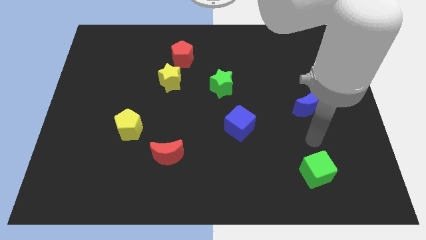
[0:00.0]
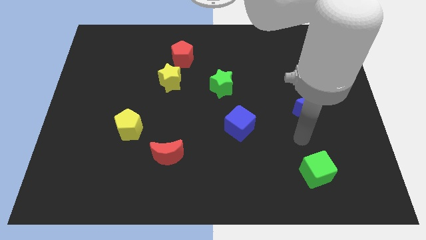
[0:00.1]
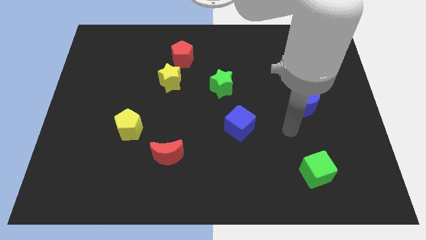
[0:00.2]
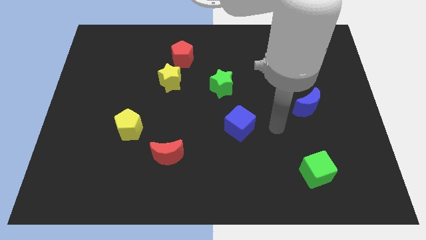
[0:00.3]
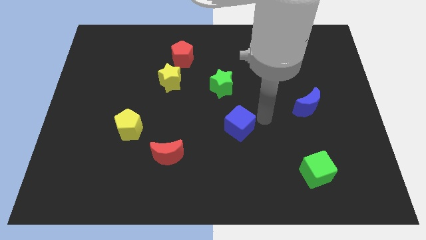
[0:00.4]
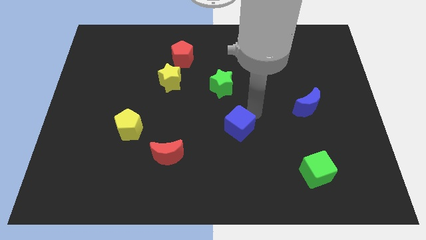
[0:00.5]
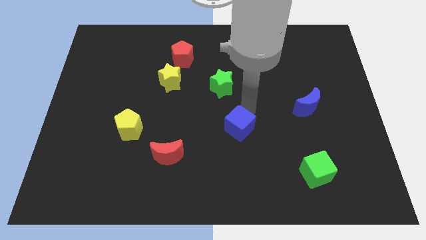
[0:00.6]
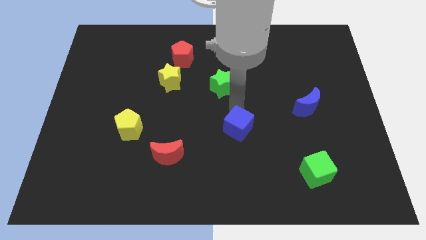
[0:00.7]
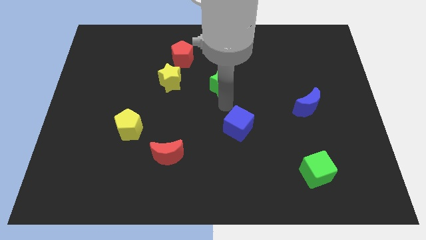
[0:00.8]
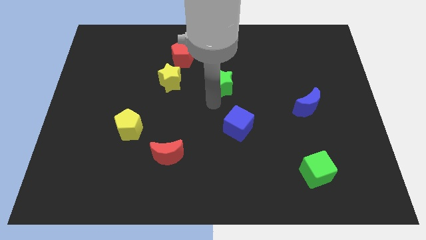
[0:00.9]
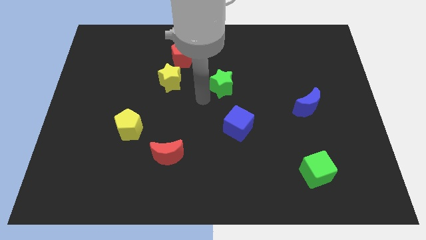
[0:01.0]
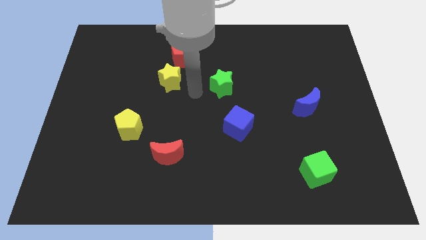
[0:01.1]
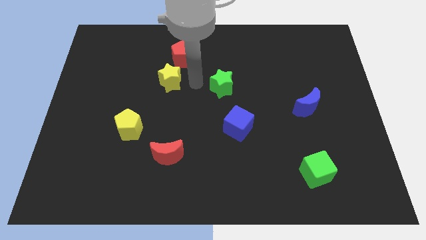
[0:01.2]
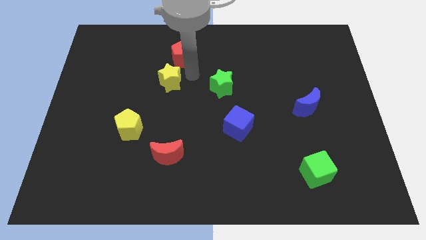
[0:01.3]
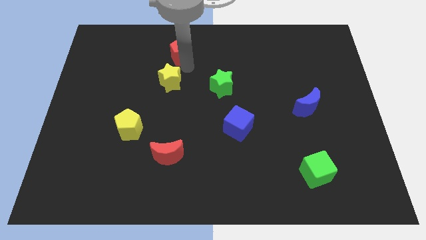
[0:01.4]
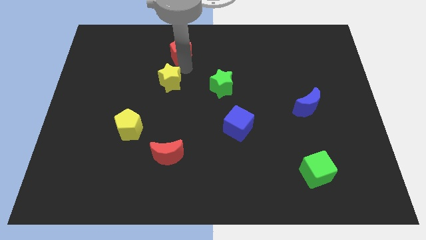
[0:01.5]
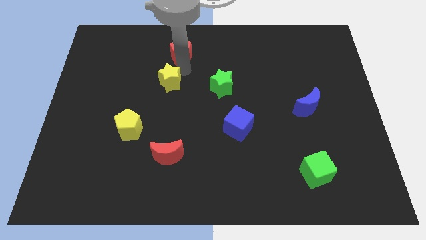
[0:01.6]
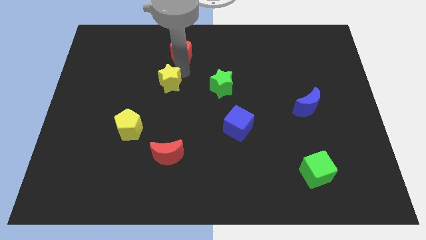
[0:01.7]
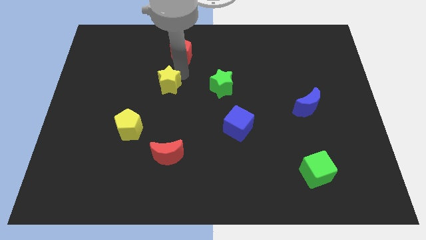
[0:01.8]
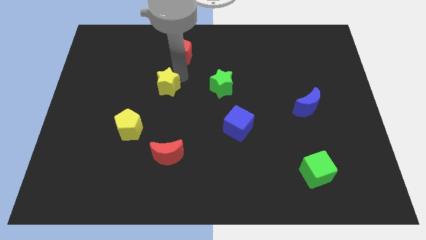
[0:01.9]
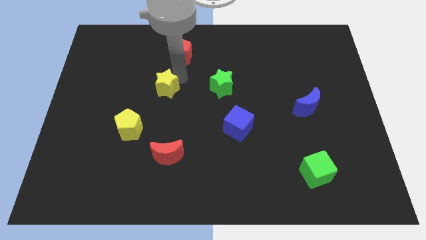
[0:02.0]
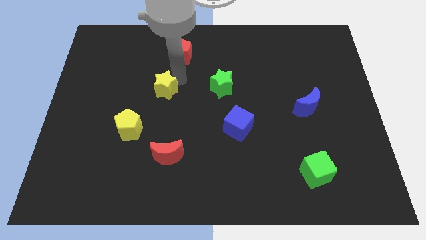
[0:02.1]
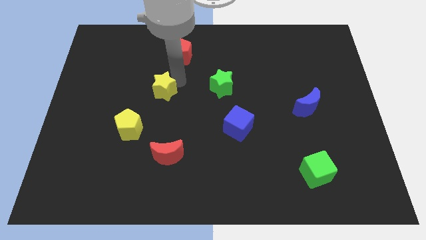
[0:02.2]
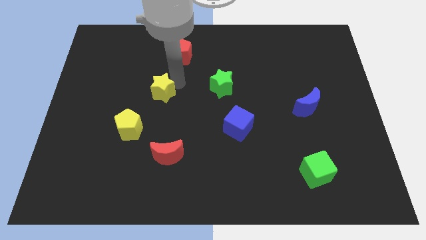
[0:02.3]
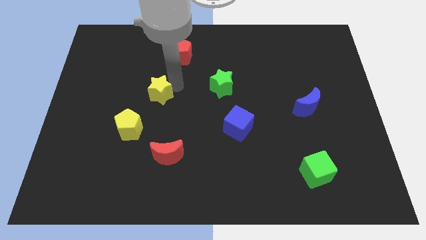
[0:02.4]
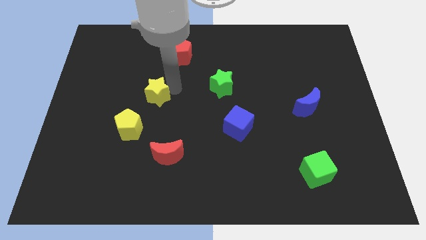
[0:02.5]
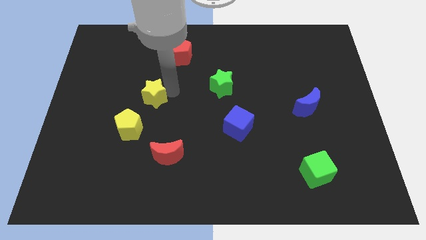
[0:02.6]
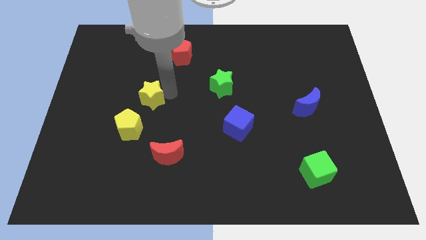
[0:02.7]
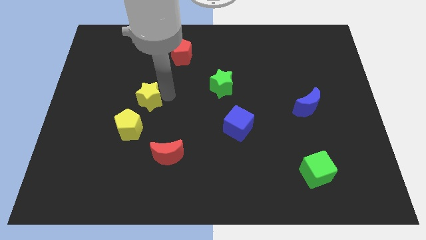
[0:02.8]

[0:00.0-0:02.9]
slide the yellow star somewhat downwards and left

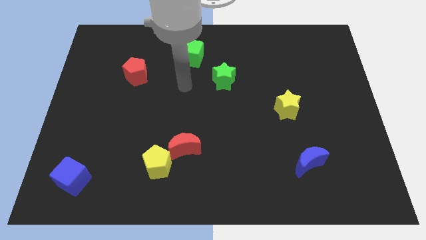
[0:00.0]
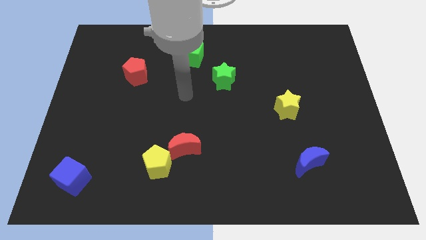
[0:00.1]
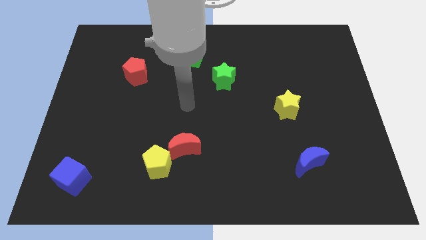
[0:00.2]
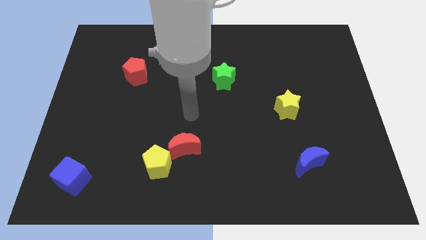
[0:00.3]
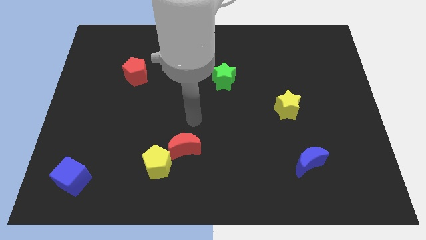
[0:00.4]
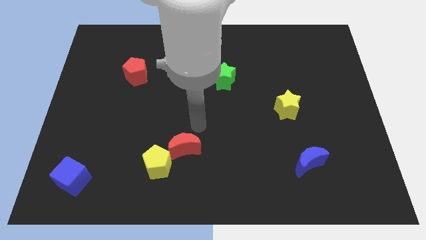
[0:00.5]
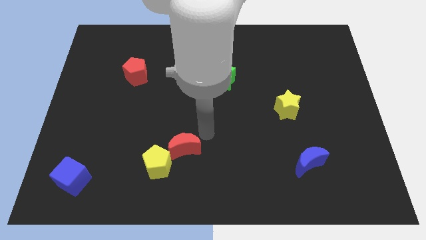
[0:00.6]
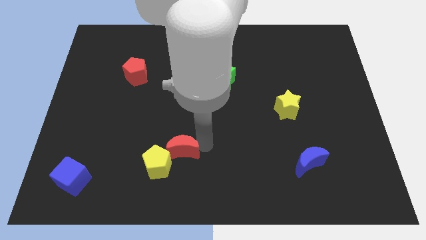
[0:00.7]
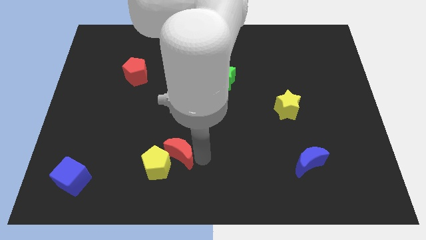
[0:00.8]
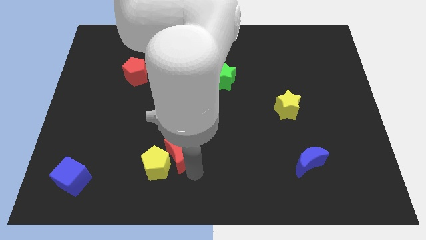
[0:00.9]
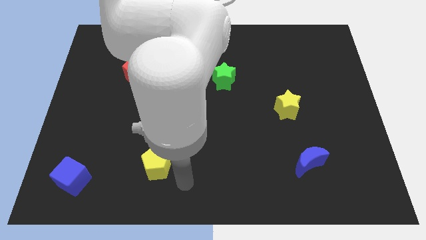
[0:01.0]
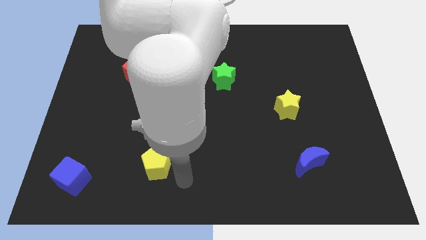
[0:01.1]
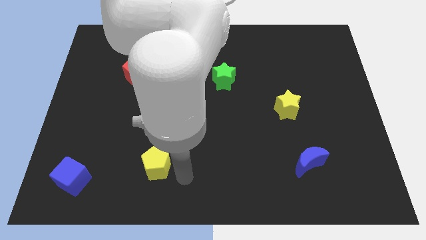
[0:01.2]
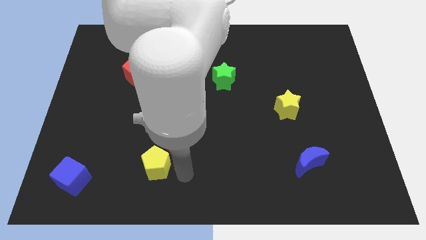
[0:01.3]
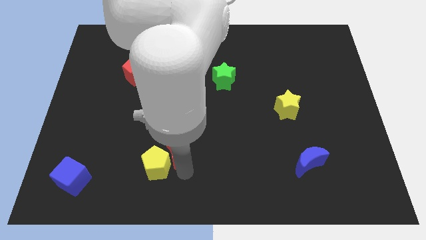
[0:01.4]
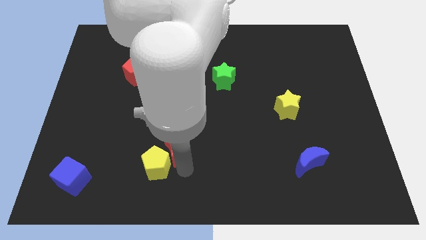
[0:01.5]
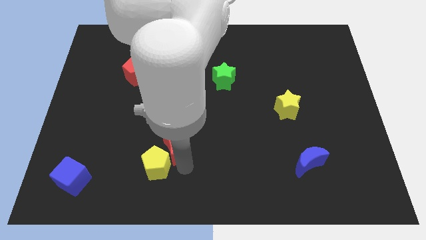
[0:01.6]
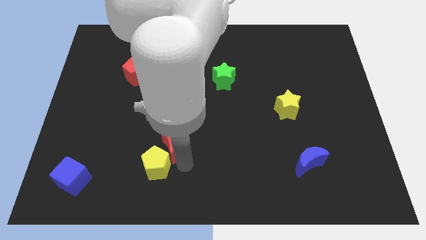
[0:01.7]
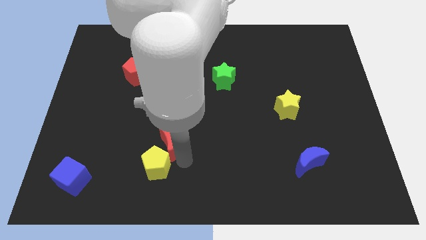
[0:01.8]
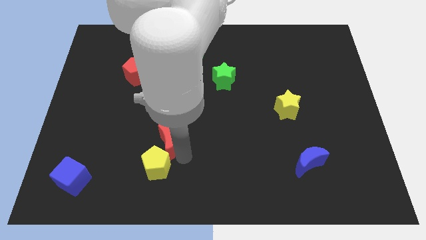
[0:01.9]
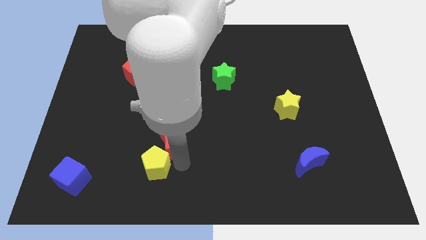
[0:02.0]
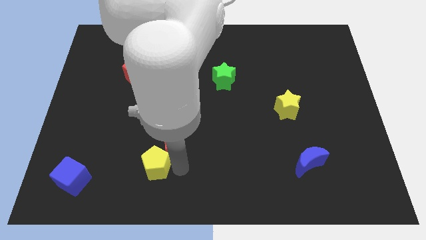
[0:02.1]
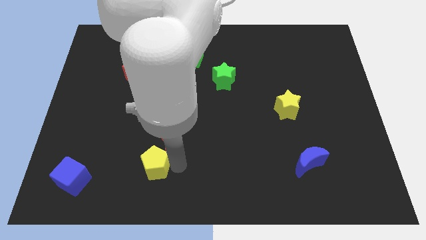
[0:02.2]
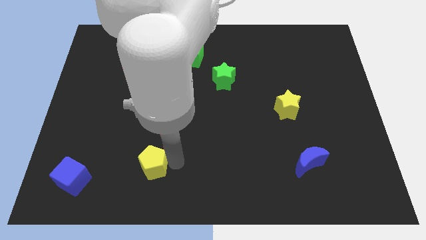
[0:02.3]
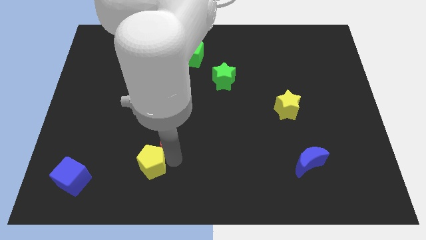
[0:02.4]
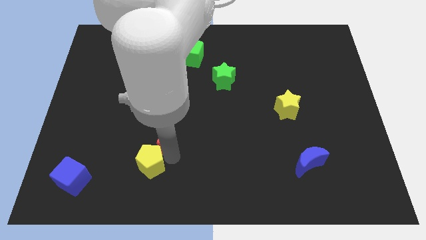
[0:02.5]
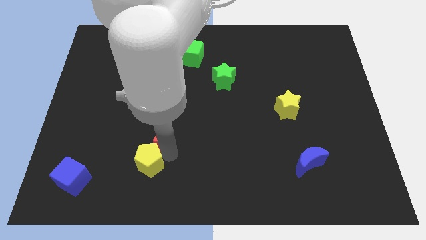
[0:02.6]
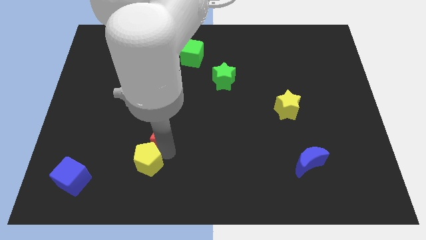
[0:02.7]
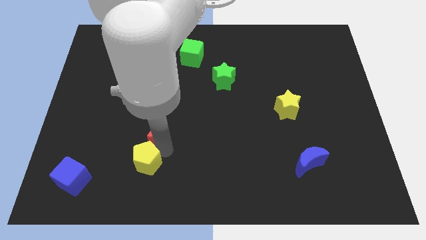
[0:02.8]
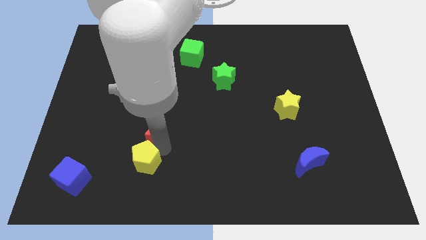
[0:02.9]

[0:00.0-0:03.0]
slightly slide the red moon upwards and left diagonally

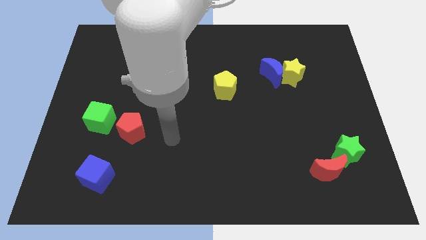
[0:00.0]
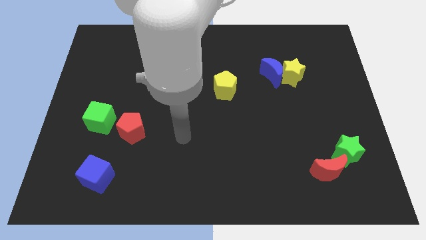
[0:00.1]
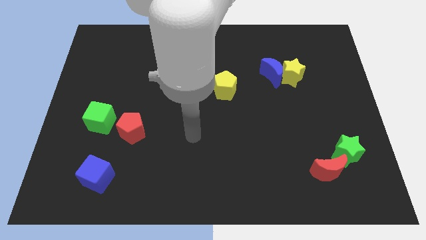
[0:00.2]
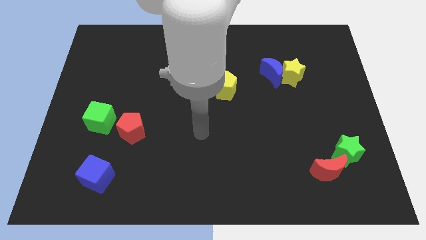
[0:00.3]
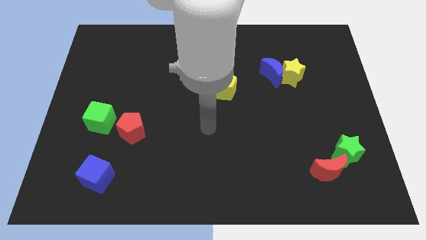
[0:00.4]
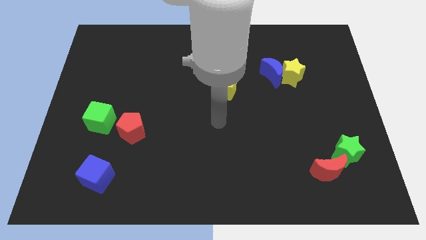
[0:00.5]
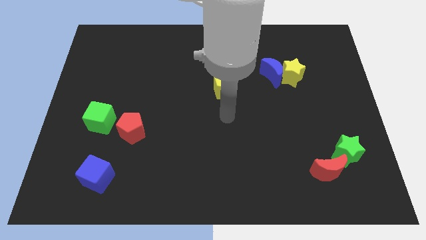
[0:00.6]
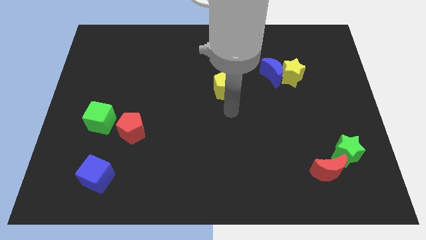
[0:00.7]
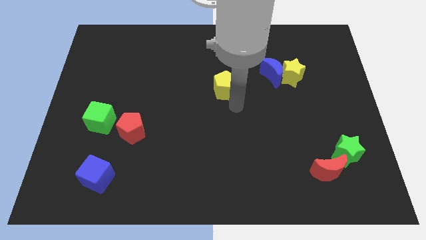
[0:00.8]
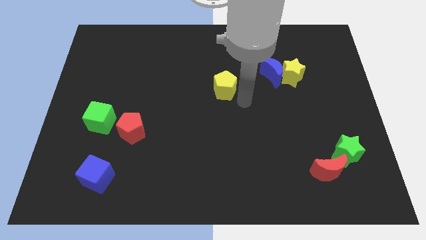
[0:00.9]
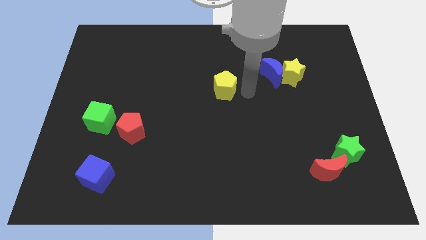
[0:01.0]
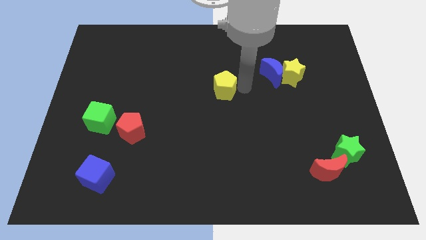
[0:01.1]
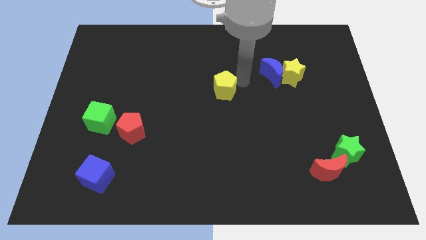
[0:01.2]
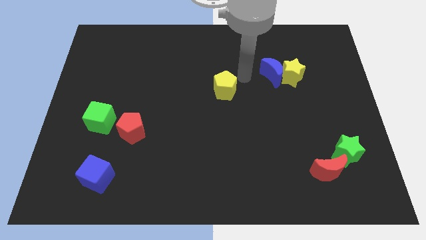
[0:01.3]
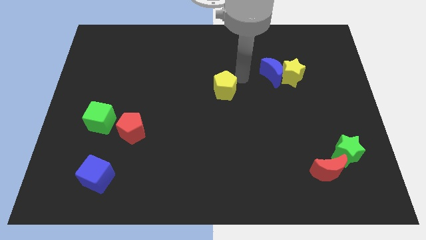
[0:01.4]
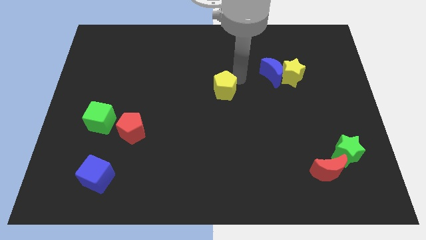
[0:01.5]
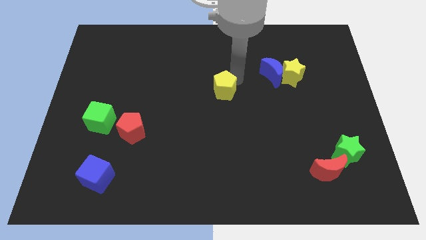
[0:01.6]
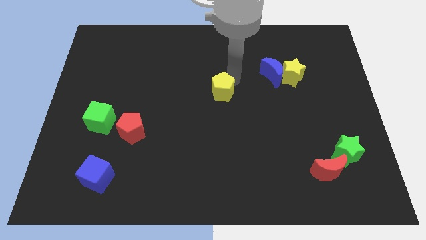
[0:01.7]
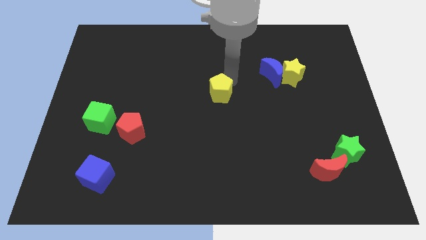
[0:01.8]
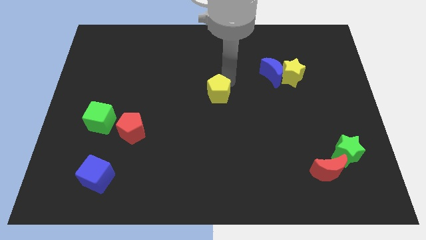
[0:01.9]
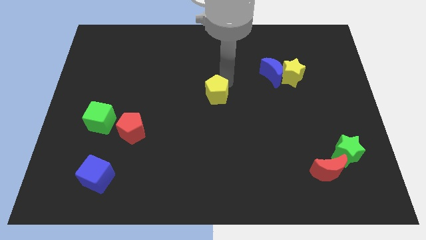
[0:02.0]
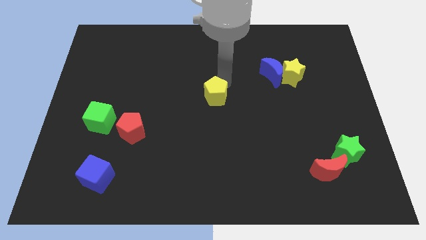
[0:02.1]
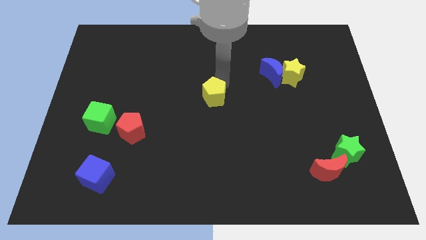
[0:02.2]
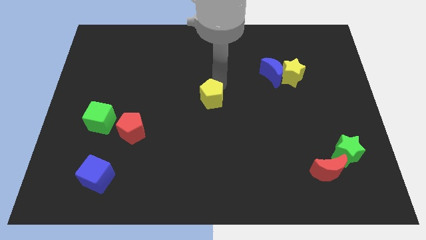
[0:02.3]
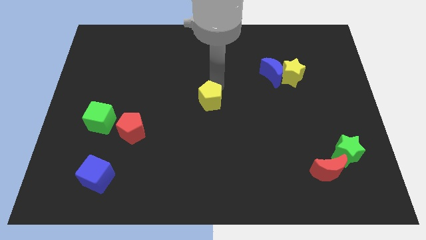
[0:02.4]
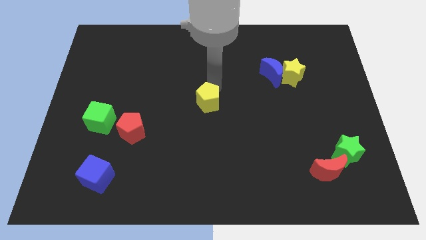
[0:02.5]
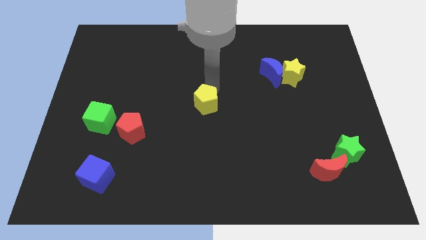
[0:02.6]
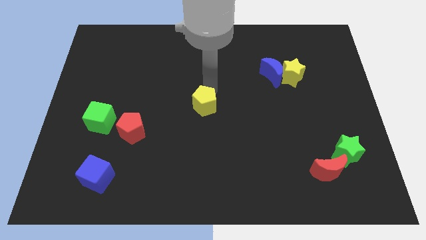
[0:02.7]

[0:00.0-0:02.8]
push the yellow pentagon slightly down and then to the left
